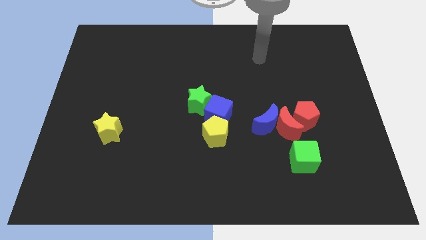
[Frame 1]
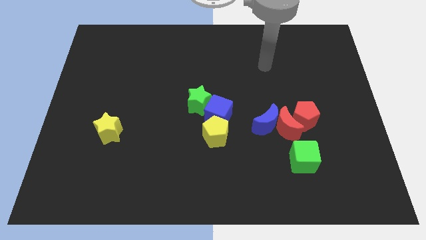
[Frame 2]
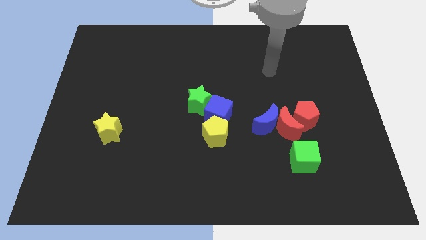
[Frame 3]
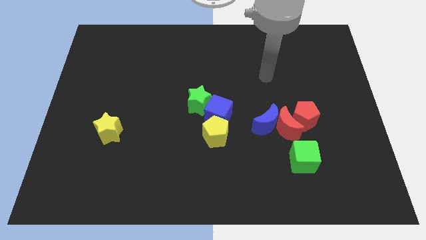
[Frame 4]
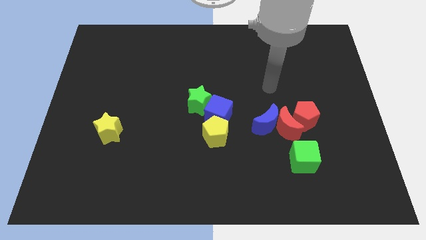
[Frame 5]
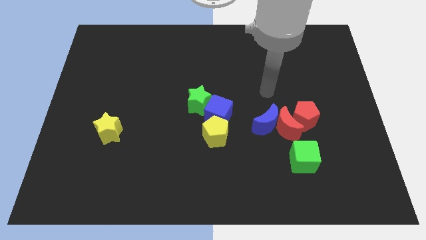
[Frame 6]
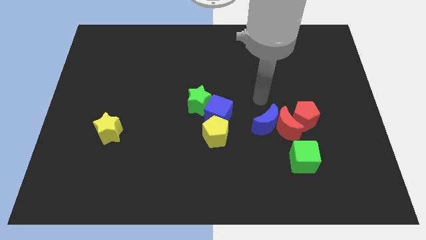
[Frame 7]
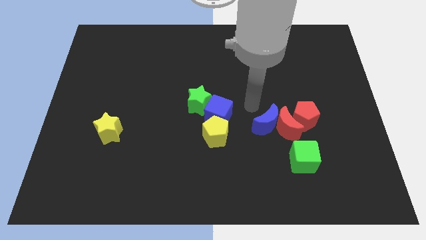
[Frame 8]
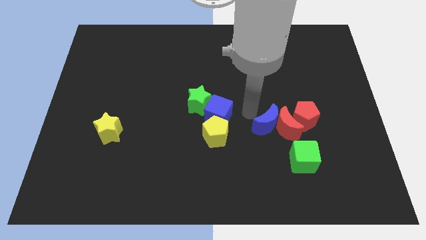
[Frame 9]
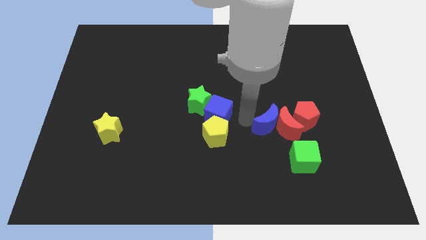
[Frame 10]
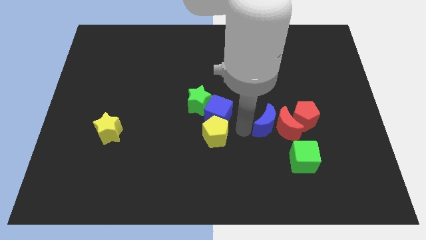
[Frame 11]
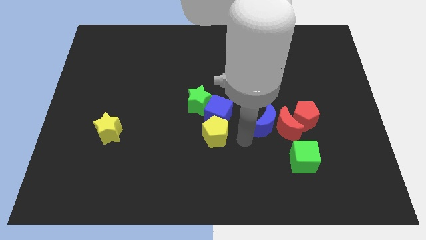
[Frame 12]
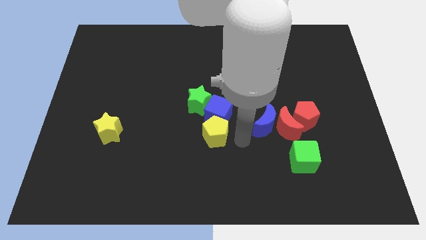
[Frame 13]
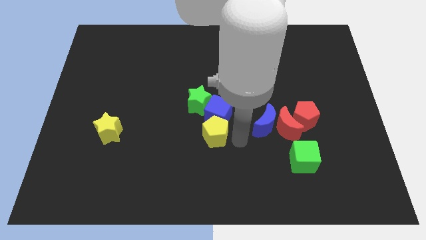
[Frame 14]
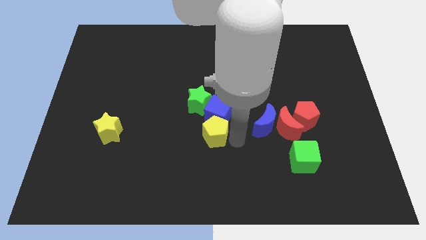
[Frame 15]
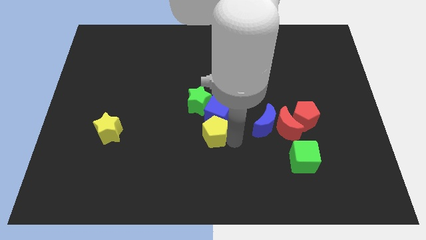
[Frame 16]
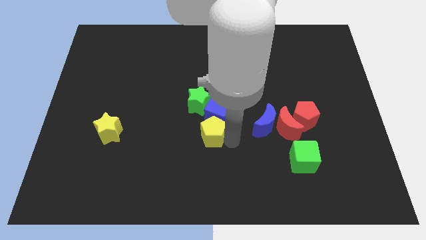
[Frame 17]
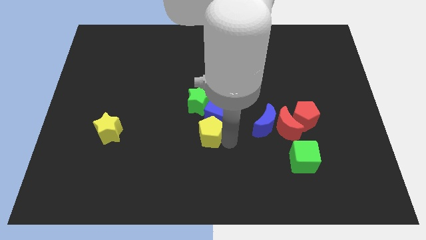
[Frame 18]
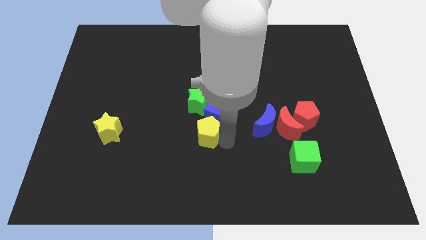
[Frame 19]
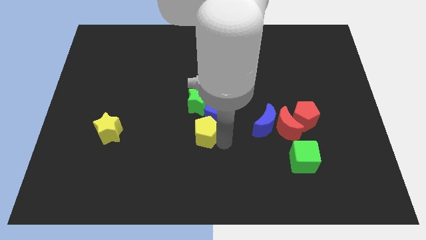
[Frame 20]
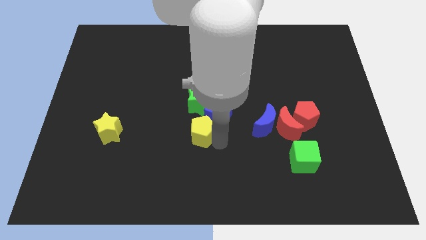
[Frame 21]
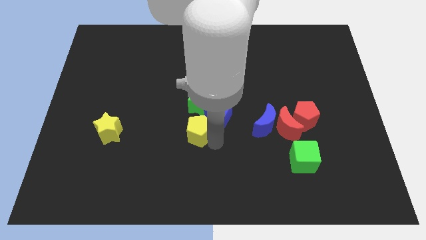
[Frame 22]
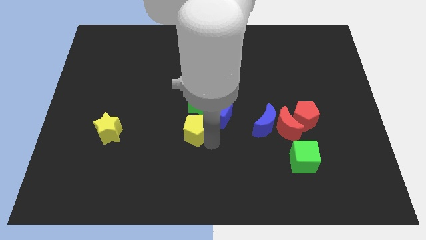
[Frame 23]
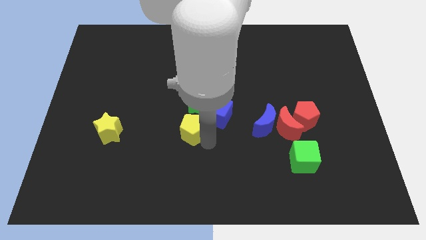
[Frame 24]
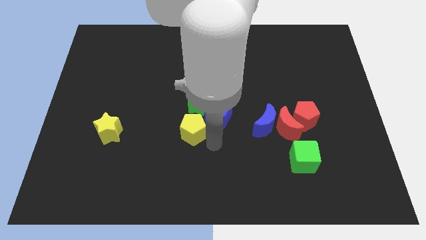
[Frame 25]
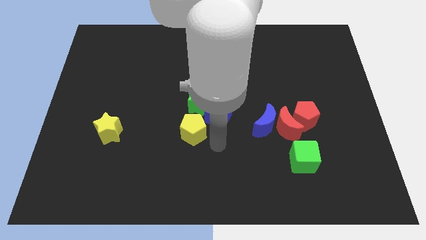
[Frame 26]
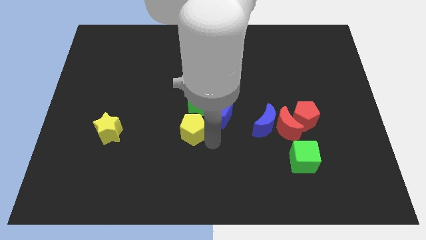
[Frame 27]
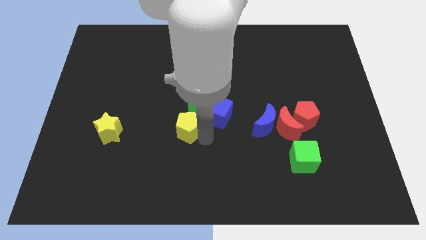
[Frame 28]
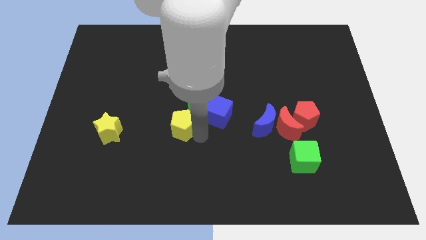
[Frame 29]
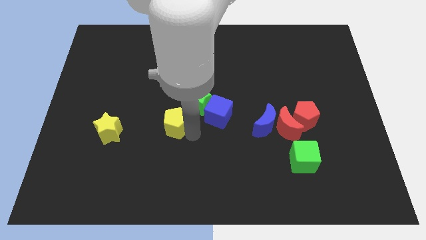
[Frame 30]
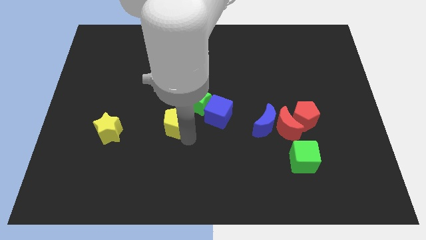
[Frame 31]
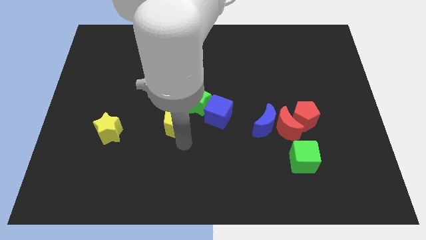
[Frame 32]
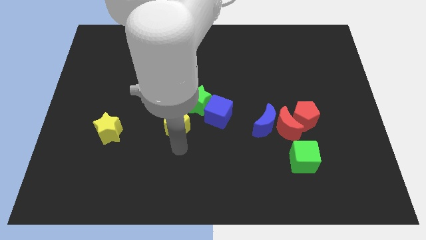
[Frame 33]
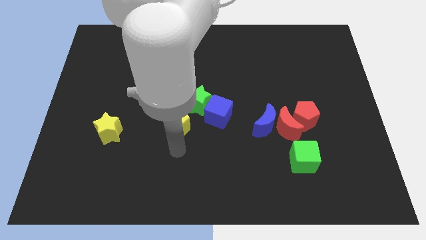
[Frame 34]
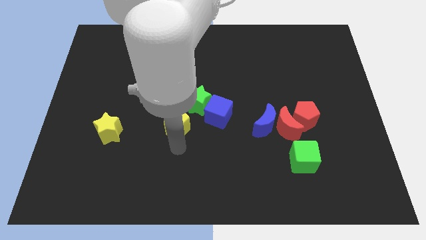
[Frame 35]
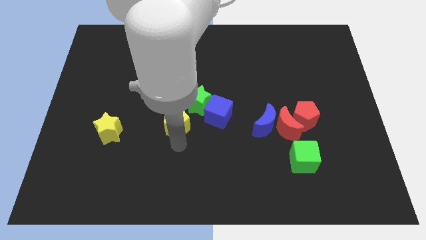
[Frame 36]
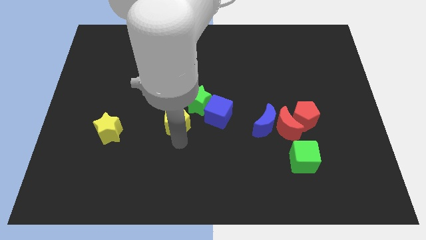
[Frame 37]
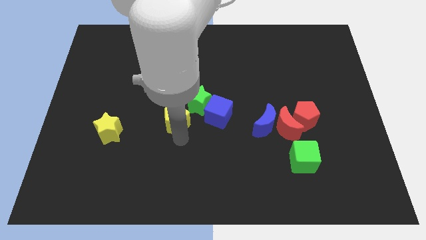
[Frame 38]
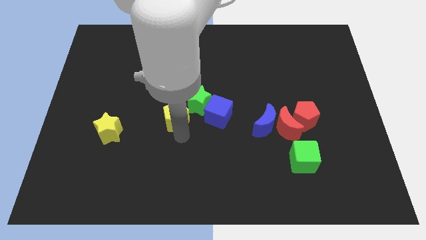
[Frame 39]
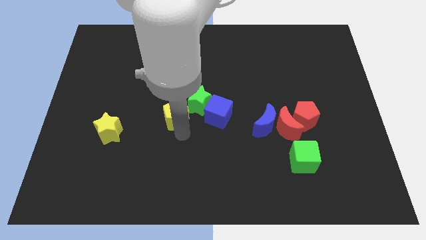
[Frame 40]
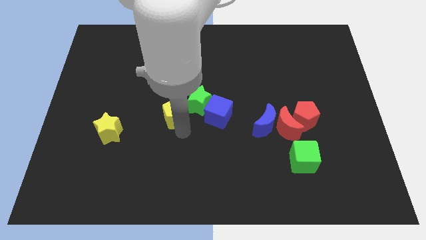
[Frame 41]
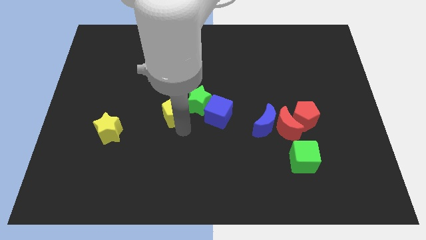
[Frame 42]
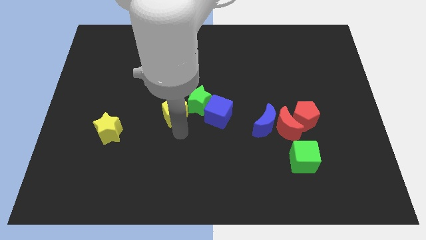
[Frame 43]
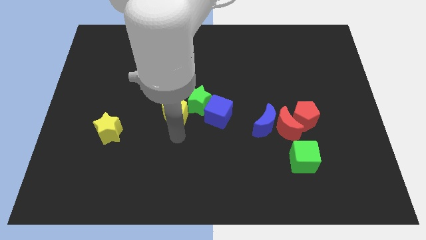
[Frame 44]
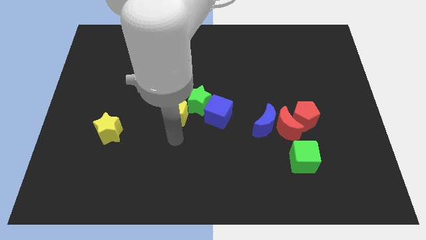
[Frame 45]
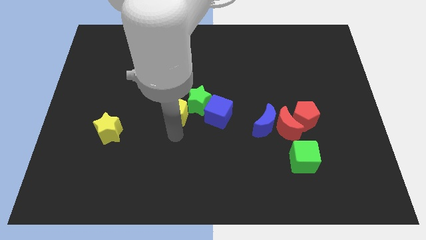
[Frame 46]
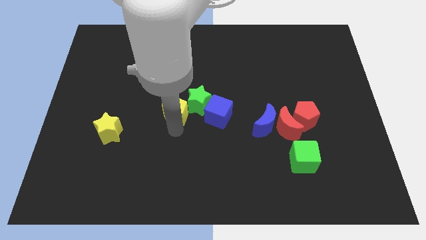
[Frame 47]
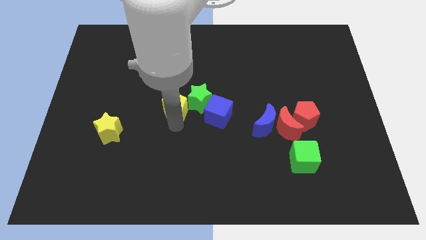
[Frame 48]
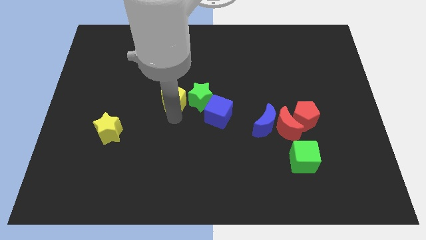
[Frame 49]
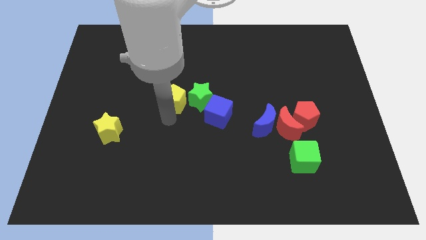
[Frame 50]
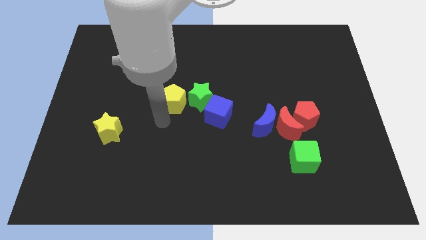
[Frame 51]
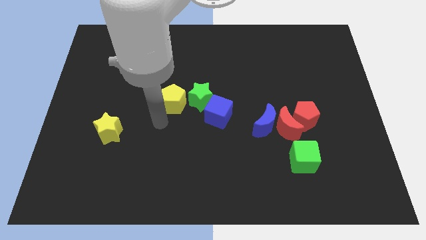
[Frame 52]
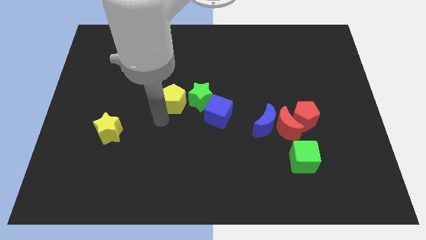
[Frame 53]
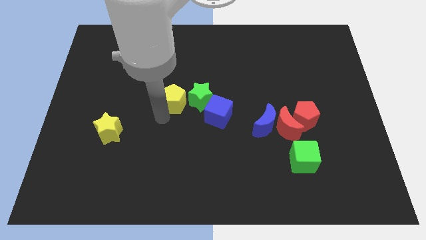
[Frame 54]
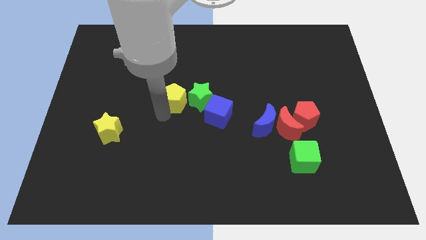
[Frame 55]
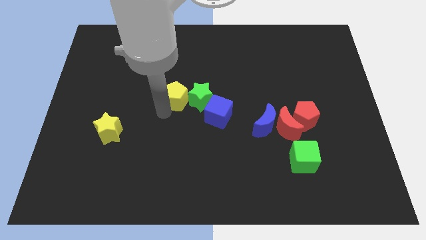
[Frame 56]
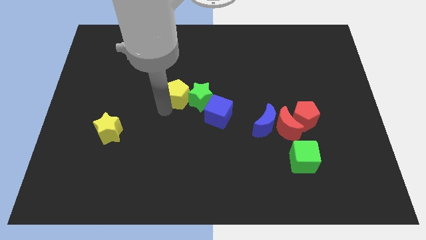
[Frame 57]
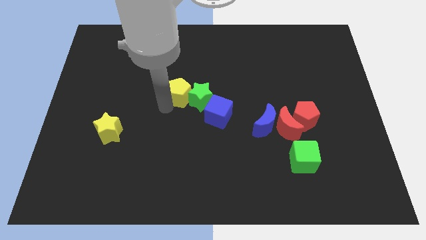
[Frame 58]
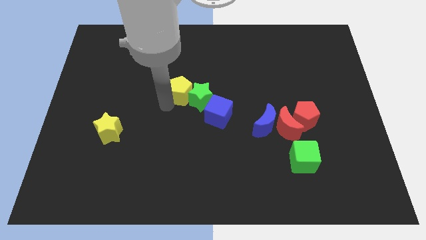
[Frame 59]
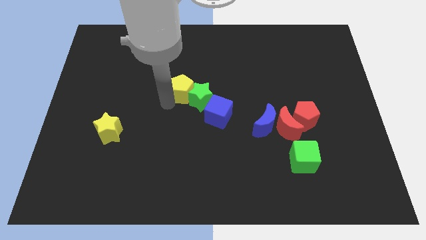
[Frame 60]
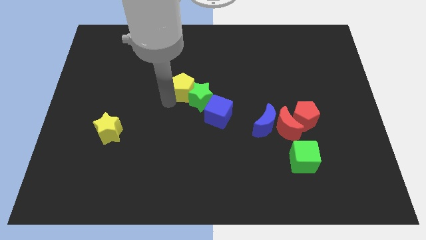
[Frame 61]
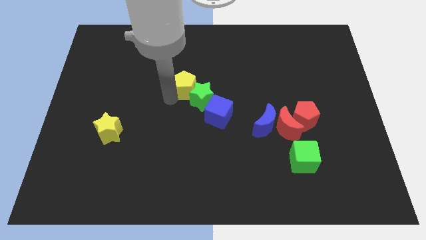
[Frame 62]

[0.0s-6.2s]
push the yellow pentagon to the top of the green star

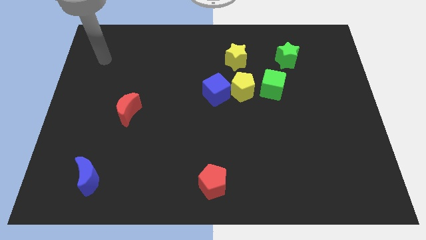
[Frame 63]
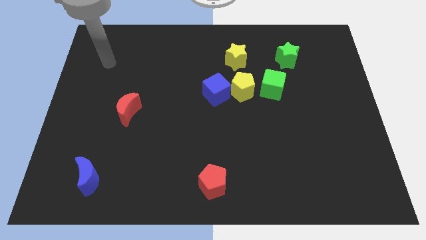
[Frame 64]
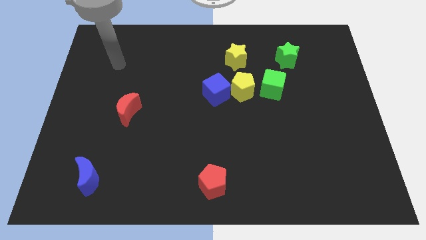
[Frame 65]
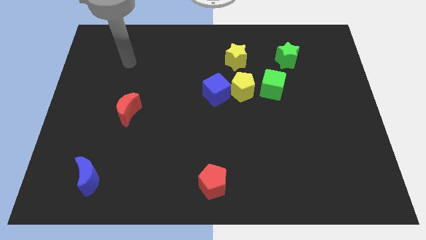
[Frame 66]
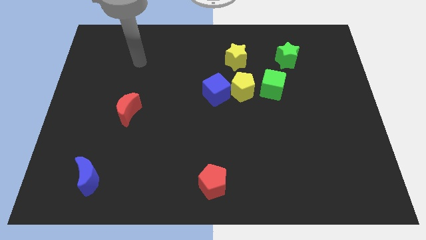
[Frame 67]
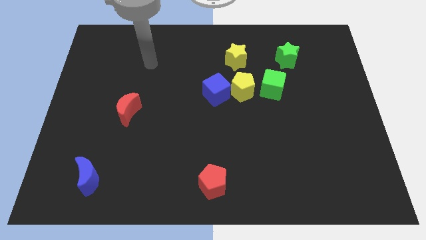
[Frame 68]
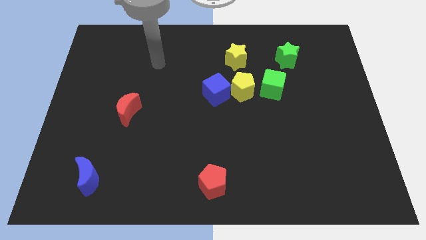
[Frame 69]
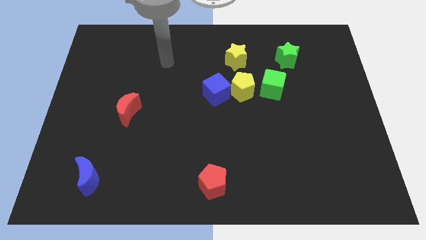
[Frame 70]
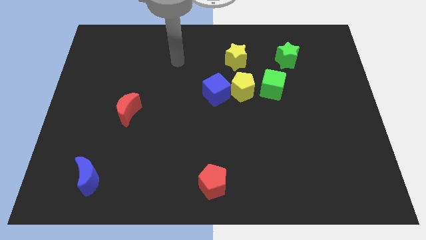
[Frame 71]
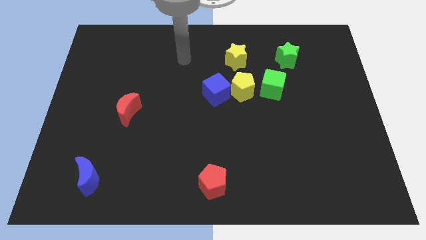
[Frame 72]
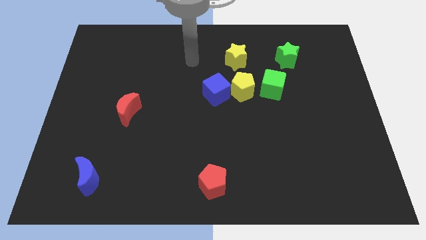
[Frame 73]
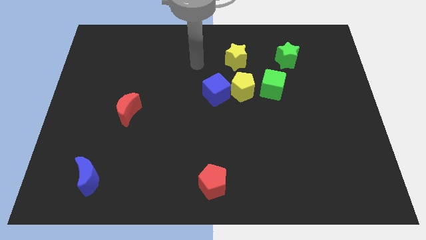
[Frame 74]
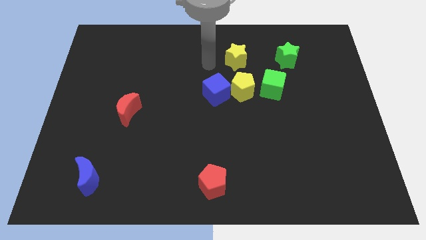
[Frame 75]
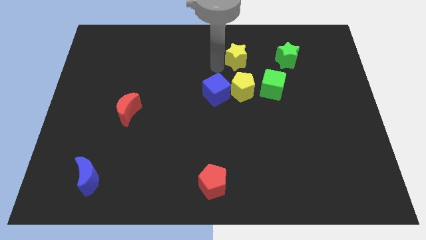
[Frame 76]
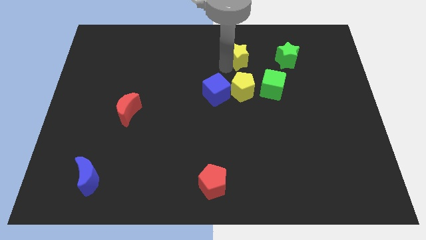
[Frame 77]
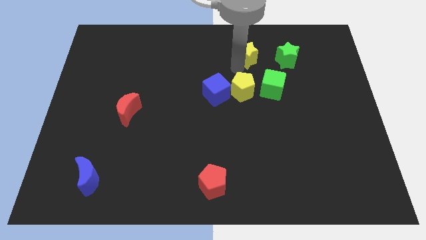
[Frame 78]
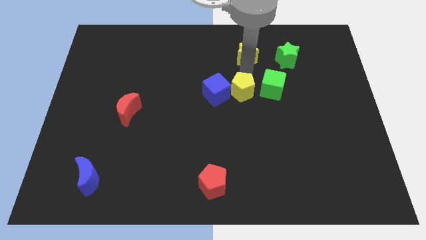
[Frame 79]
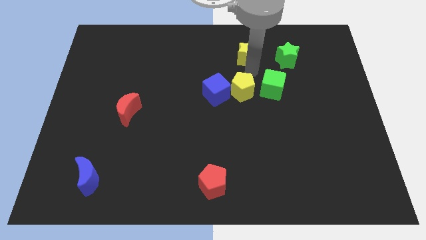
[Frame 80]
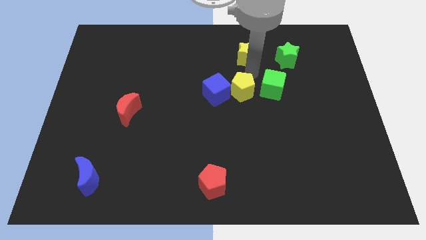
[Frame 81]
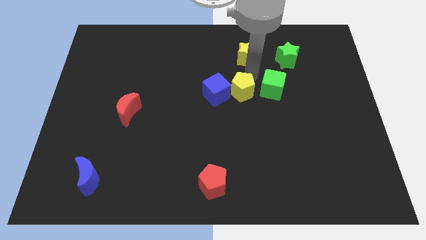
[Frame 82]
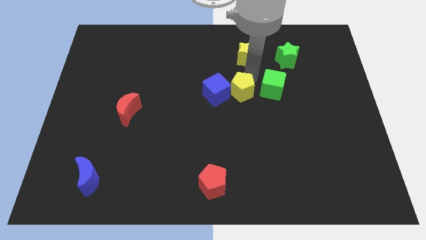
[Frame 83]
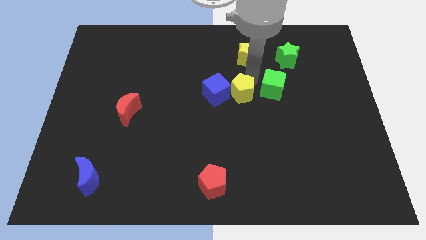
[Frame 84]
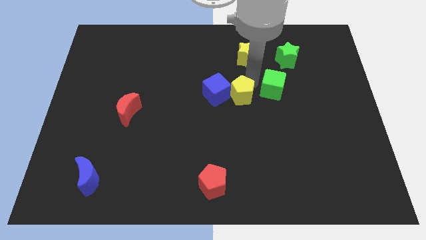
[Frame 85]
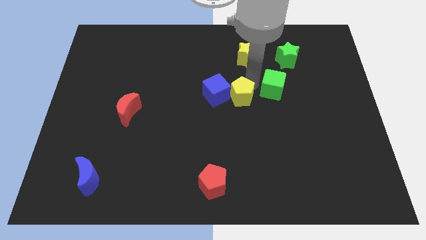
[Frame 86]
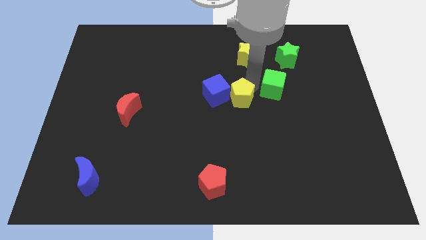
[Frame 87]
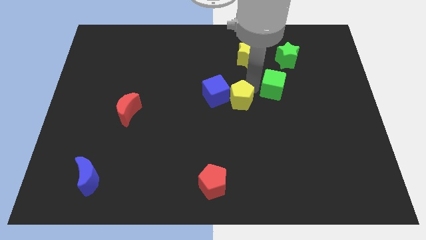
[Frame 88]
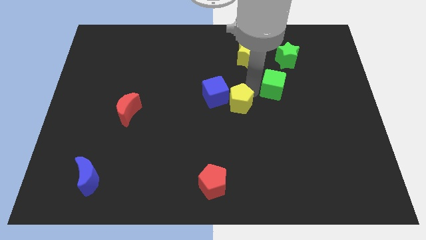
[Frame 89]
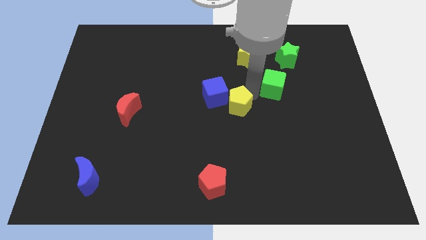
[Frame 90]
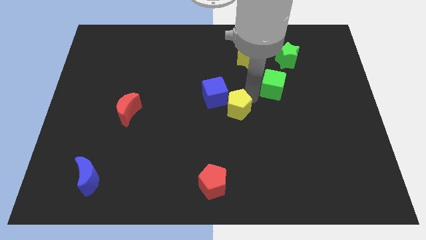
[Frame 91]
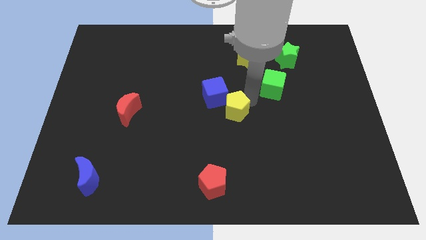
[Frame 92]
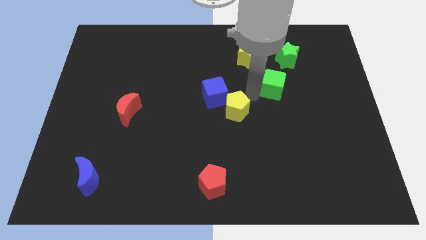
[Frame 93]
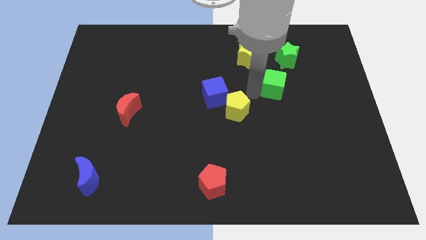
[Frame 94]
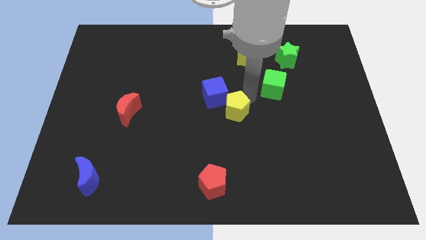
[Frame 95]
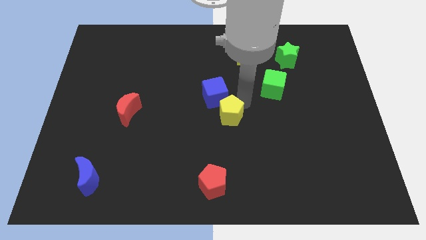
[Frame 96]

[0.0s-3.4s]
push the yellow pentagon to the bottom of the blue cube
